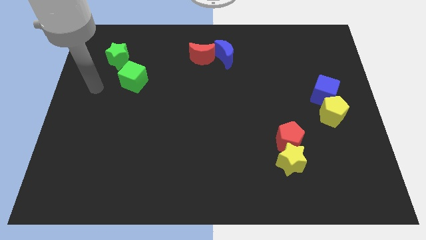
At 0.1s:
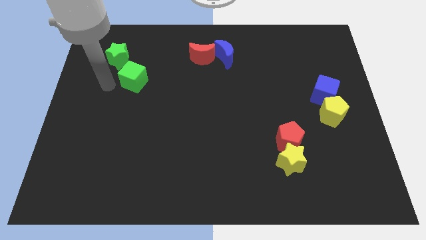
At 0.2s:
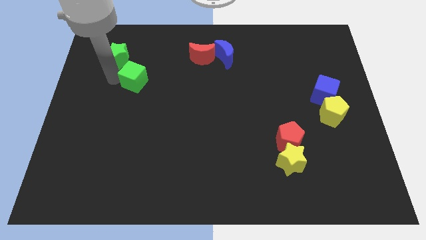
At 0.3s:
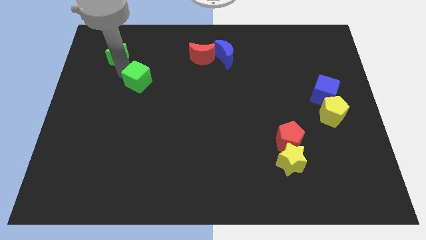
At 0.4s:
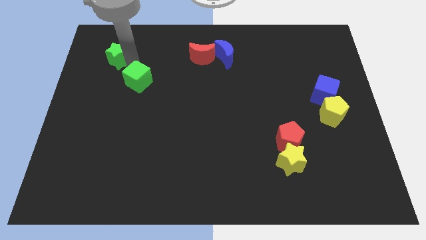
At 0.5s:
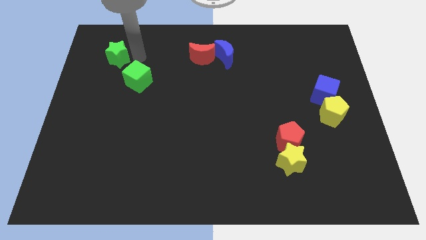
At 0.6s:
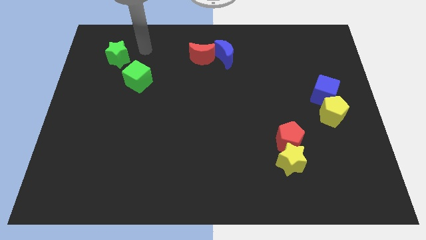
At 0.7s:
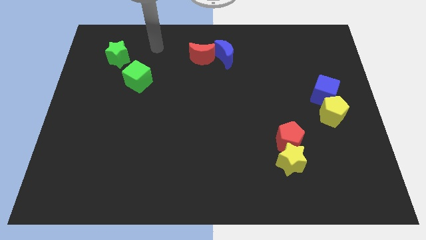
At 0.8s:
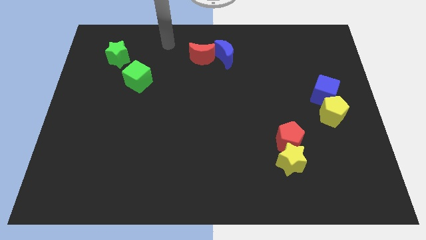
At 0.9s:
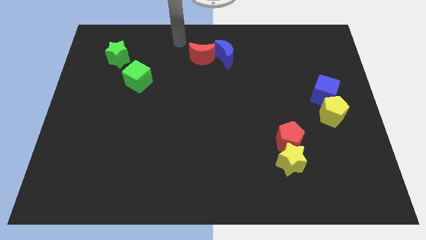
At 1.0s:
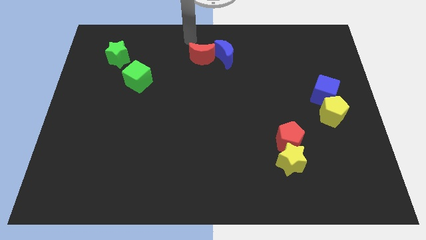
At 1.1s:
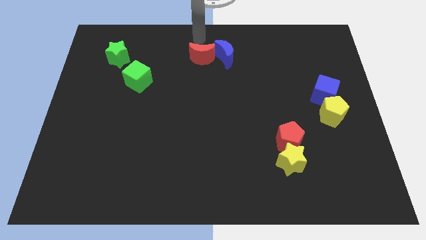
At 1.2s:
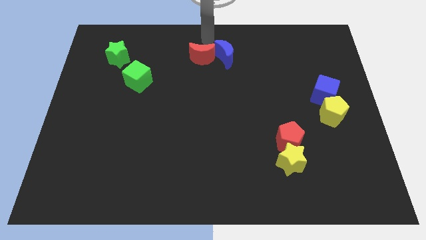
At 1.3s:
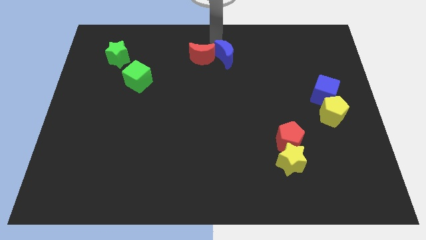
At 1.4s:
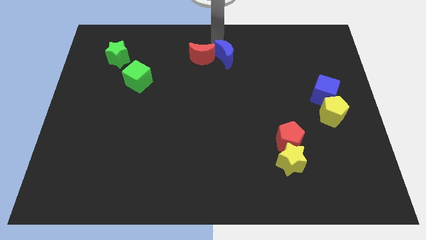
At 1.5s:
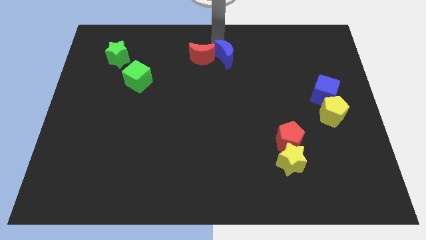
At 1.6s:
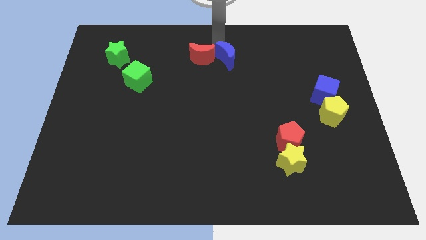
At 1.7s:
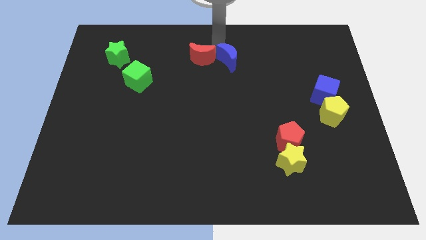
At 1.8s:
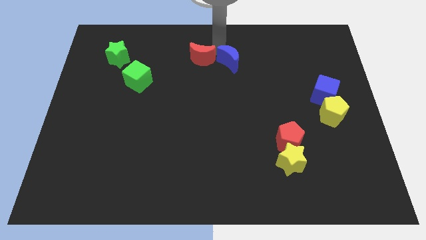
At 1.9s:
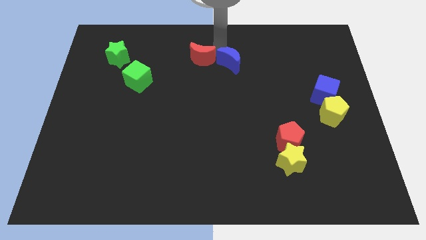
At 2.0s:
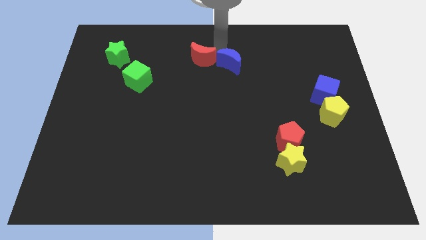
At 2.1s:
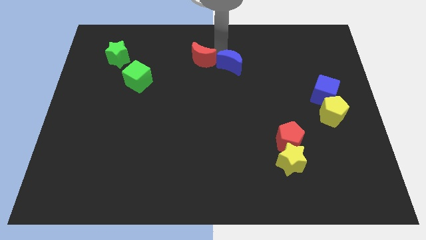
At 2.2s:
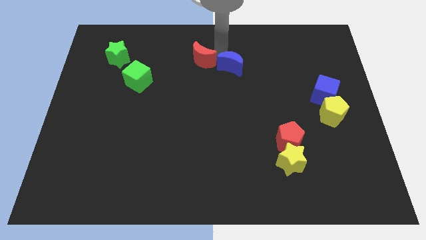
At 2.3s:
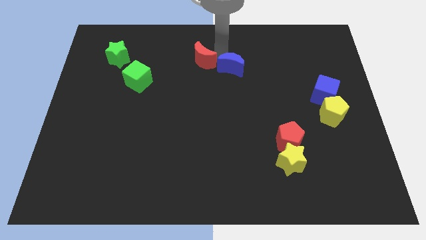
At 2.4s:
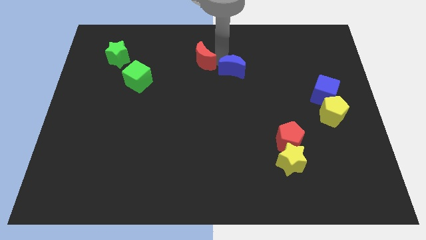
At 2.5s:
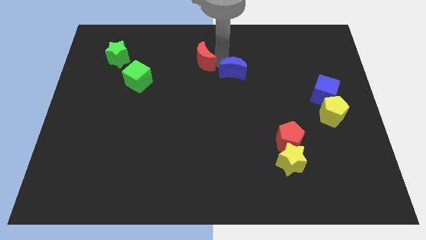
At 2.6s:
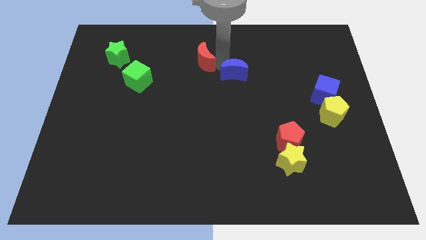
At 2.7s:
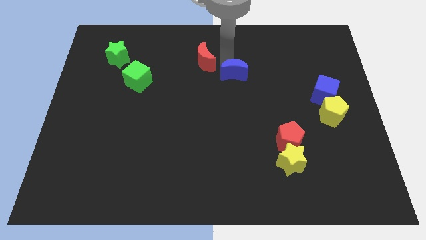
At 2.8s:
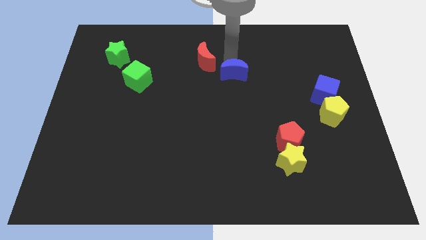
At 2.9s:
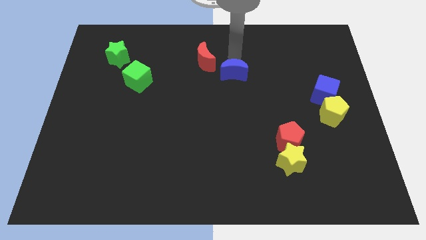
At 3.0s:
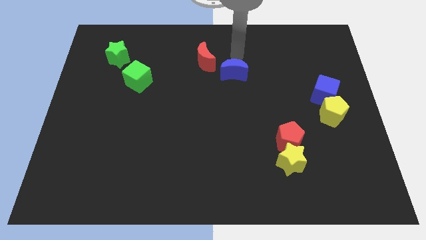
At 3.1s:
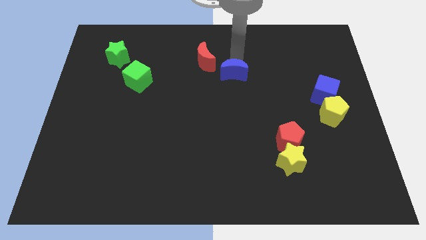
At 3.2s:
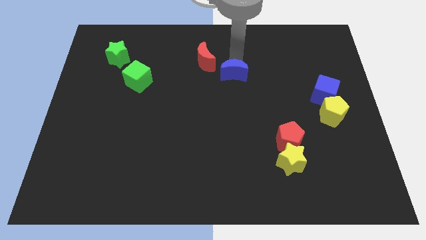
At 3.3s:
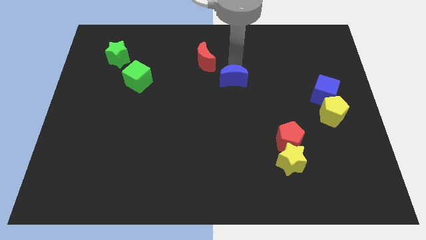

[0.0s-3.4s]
slightly slide the blue moon down

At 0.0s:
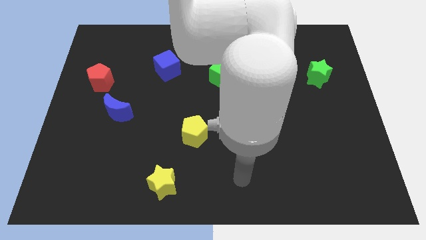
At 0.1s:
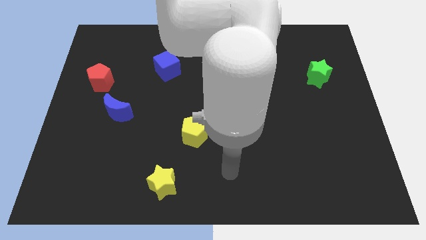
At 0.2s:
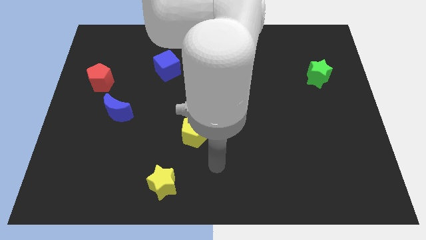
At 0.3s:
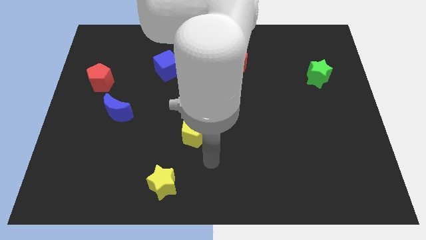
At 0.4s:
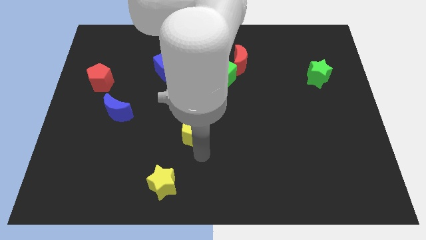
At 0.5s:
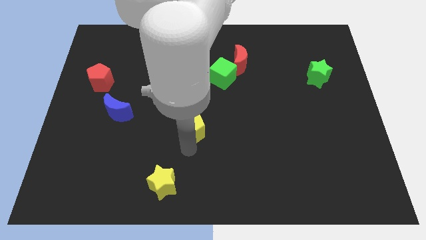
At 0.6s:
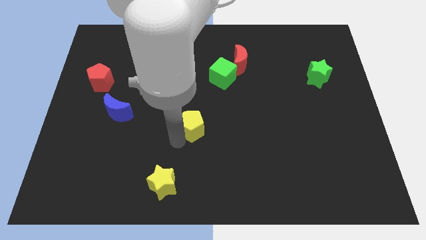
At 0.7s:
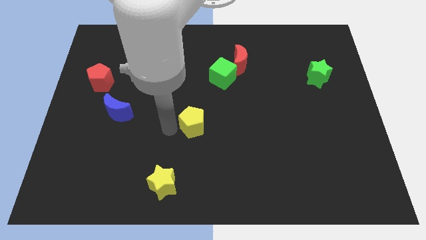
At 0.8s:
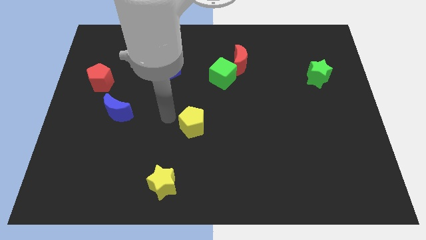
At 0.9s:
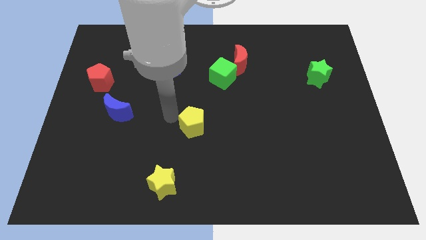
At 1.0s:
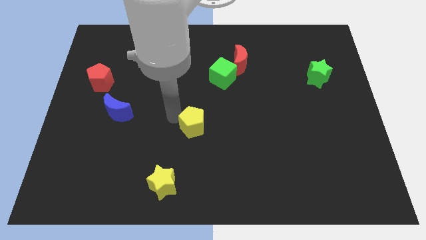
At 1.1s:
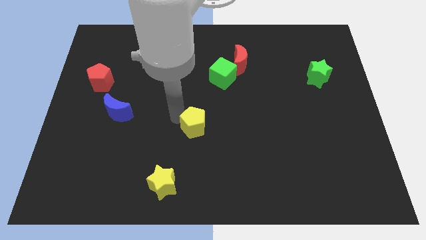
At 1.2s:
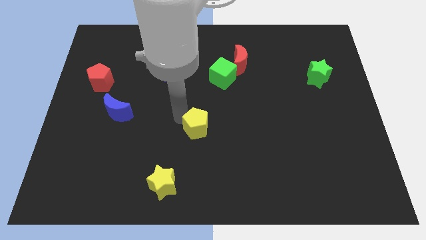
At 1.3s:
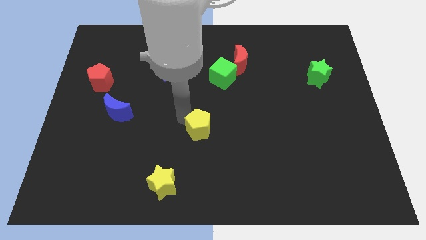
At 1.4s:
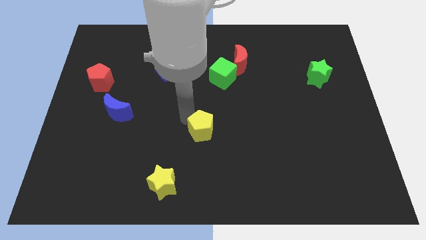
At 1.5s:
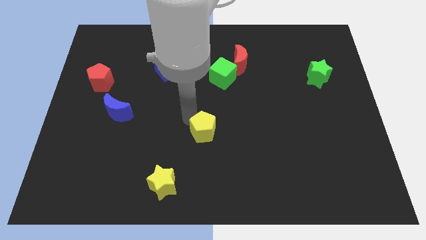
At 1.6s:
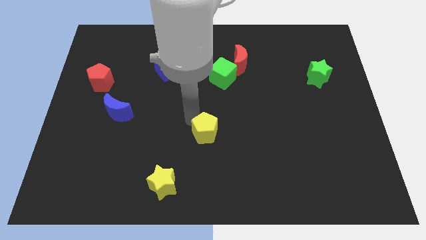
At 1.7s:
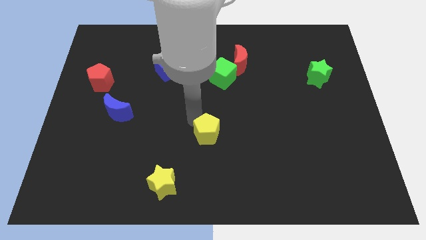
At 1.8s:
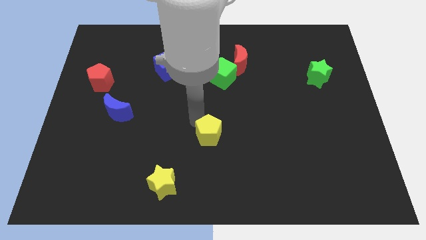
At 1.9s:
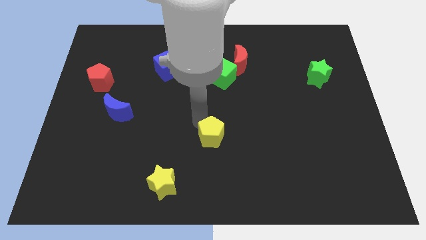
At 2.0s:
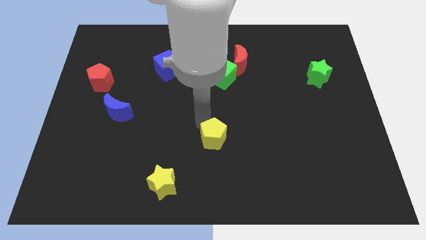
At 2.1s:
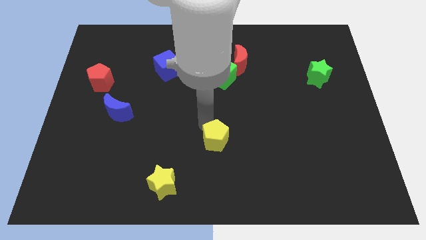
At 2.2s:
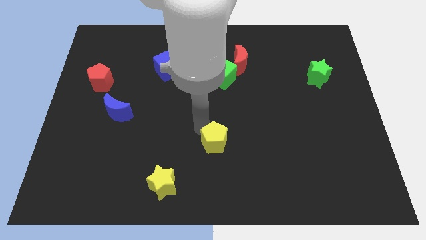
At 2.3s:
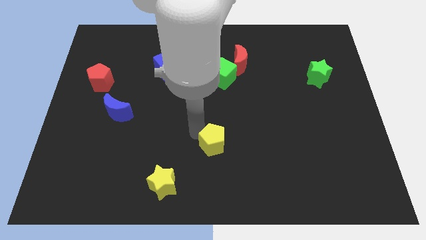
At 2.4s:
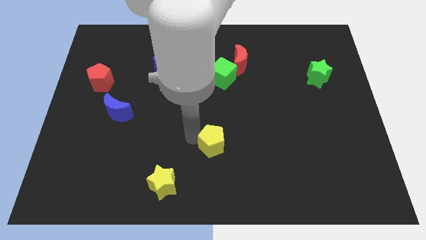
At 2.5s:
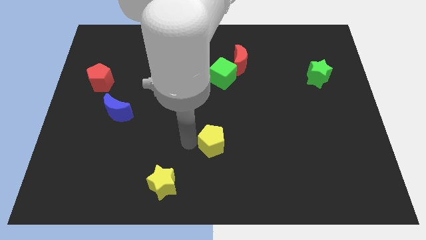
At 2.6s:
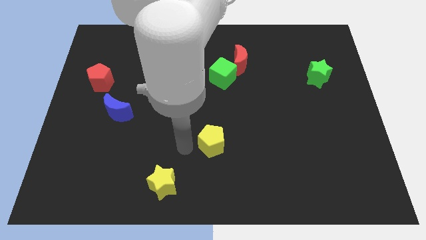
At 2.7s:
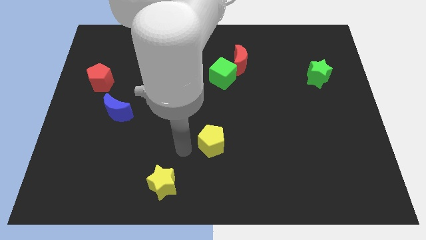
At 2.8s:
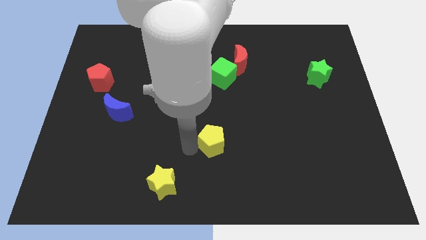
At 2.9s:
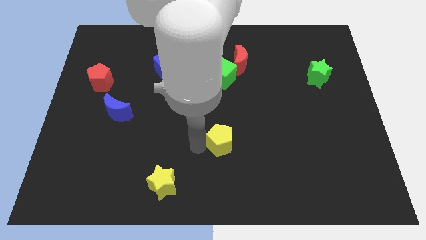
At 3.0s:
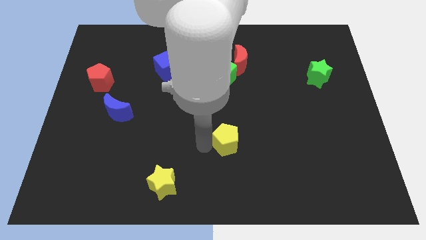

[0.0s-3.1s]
move the yellow pentagon right somewhat

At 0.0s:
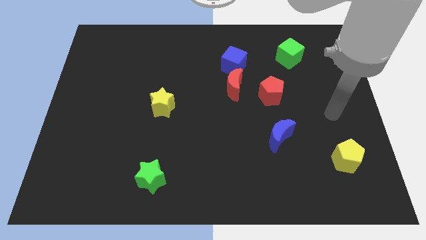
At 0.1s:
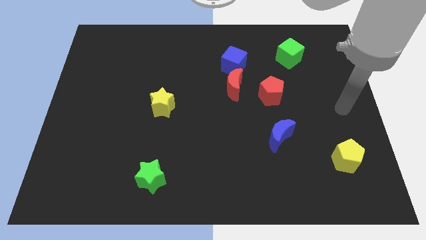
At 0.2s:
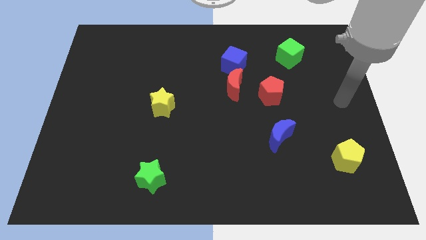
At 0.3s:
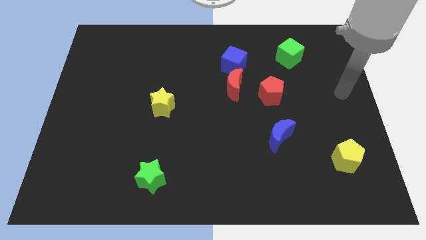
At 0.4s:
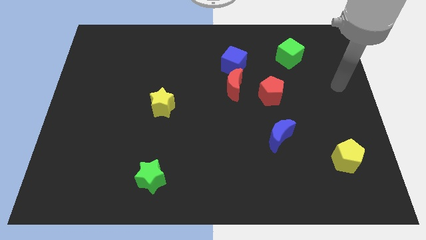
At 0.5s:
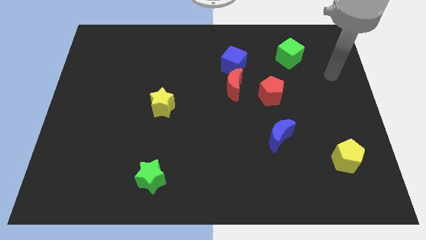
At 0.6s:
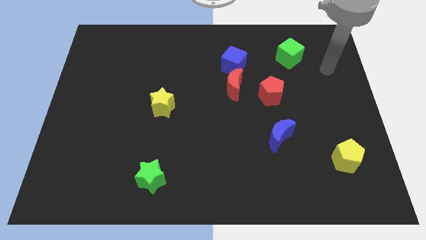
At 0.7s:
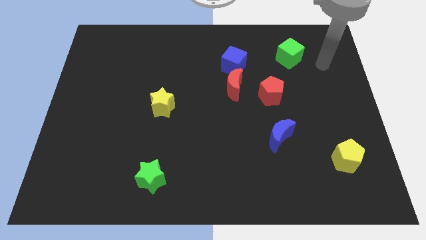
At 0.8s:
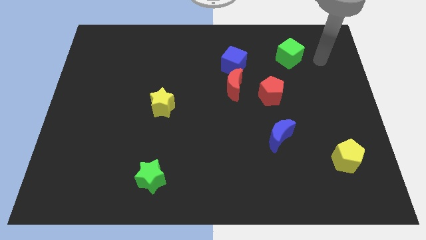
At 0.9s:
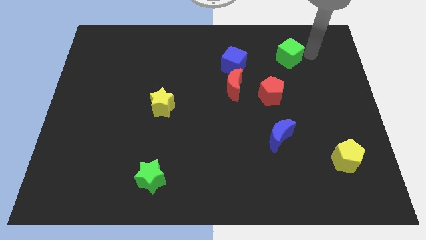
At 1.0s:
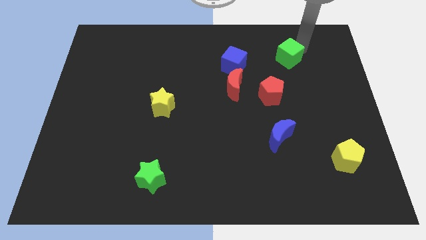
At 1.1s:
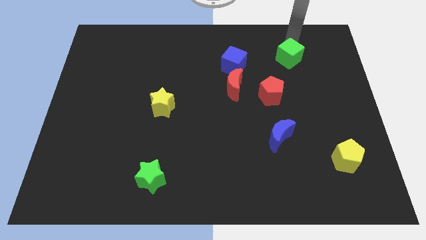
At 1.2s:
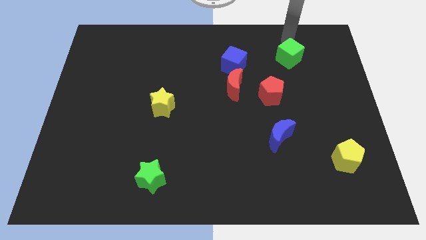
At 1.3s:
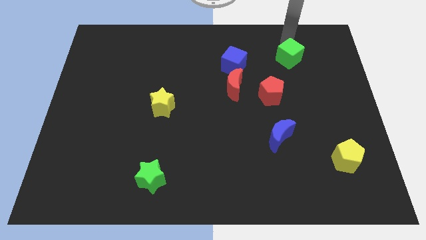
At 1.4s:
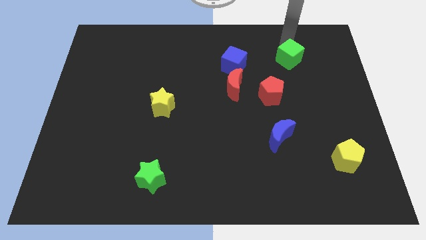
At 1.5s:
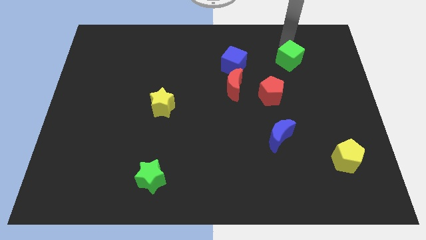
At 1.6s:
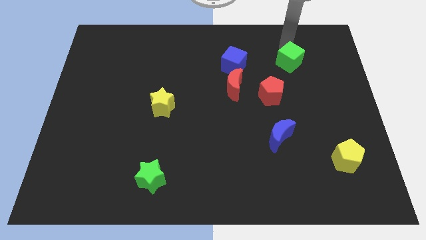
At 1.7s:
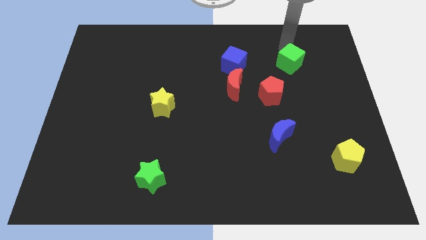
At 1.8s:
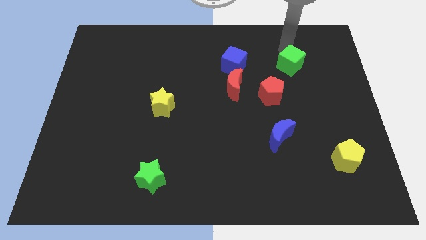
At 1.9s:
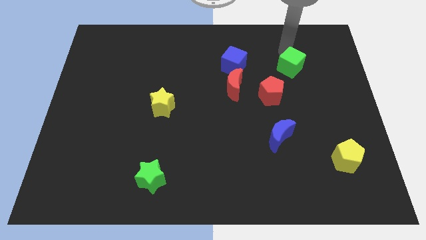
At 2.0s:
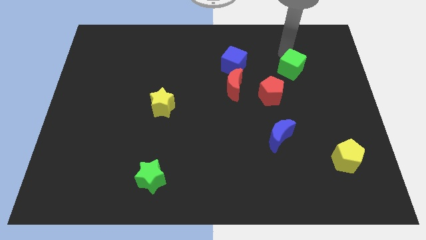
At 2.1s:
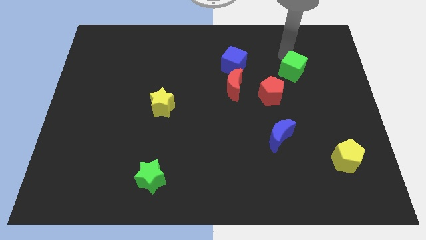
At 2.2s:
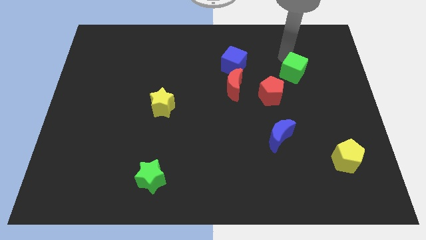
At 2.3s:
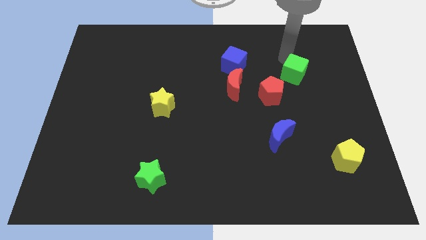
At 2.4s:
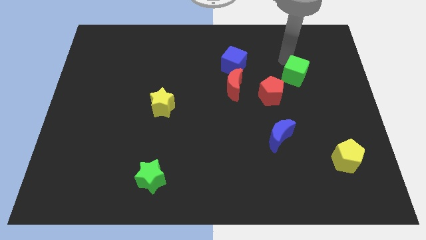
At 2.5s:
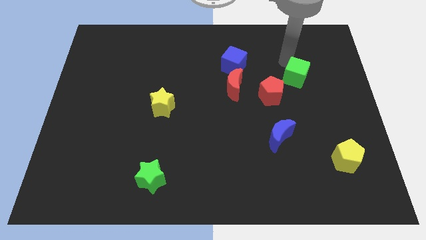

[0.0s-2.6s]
slide the green cube a little down
